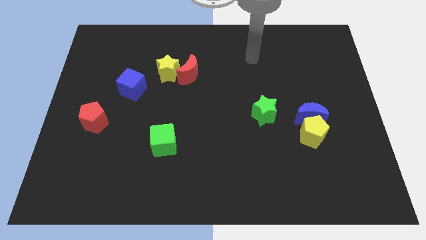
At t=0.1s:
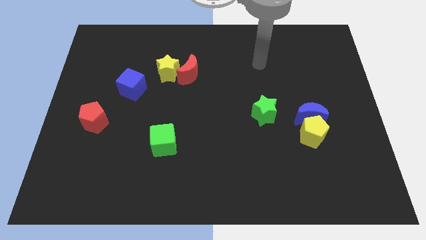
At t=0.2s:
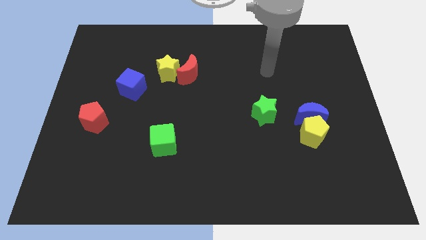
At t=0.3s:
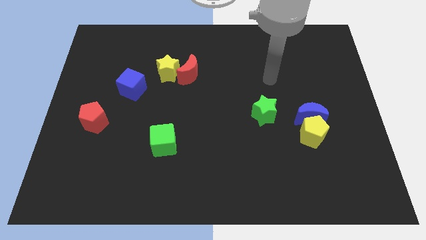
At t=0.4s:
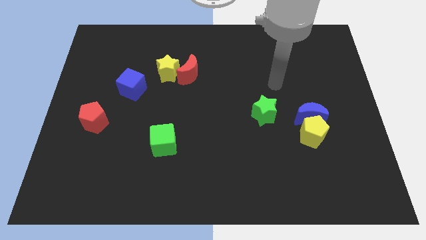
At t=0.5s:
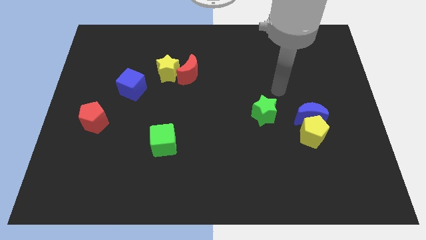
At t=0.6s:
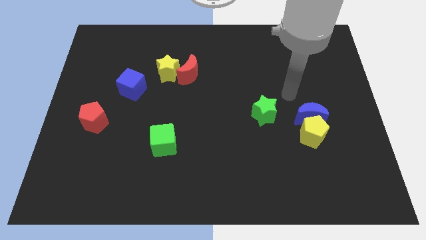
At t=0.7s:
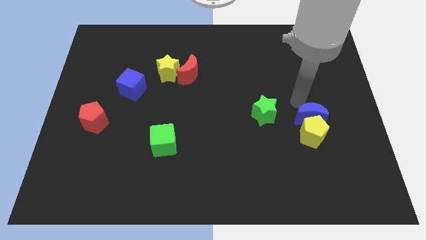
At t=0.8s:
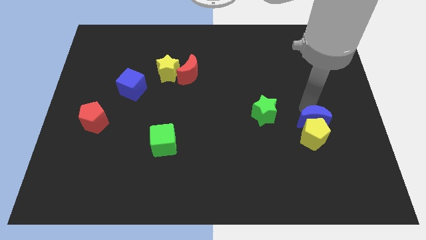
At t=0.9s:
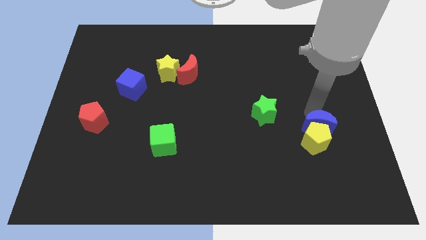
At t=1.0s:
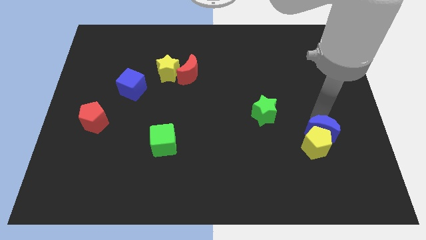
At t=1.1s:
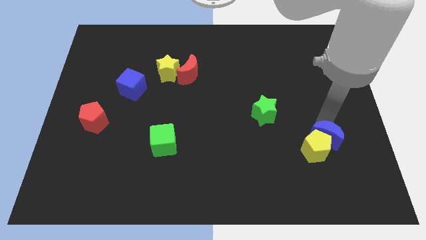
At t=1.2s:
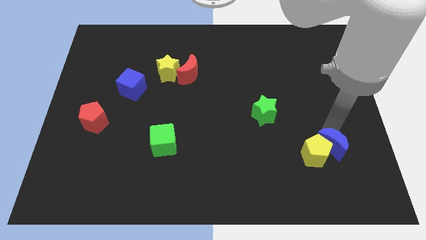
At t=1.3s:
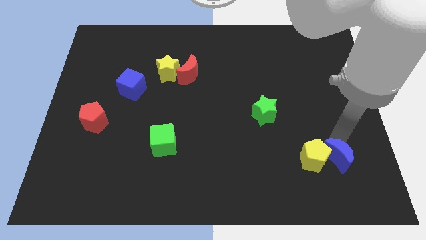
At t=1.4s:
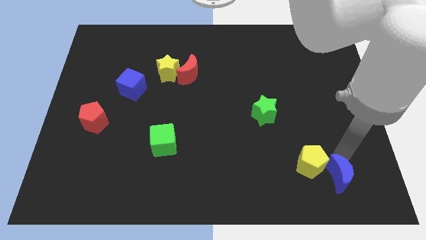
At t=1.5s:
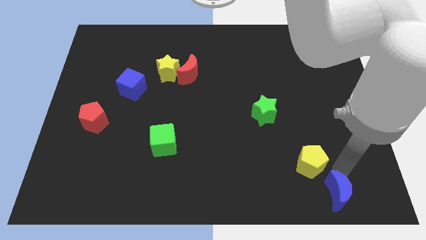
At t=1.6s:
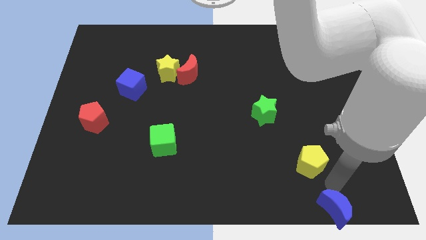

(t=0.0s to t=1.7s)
move the yellow pentagon away from the blue moon

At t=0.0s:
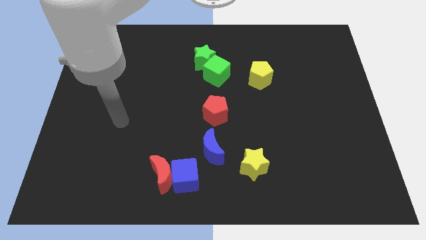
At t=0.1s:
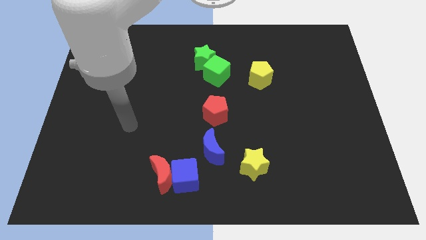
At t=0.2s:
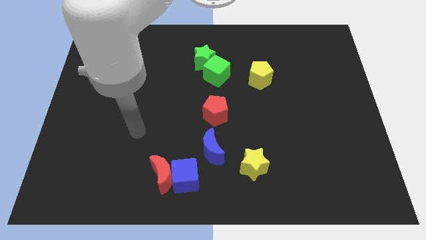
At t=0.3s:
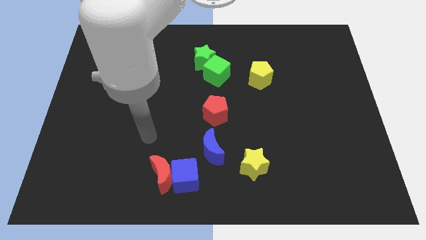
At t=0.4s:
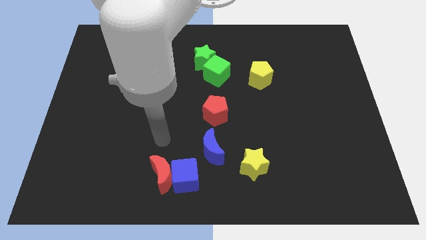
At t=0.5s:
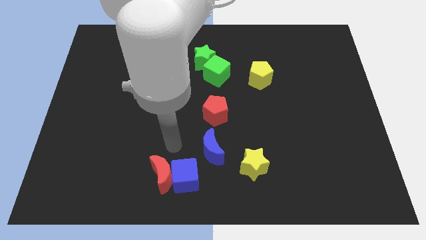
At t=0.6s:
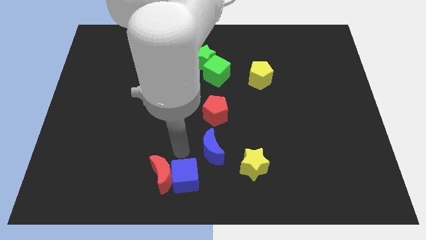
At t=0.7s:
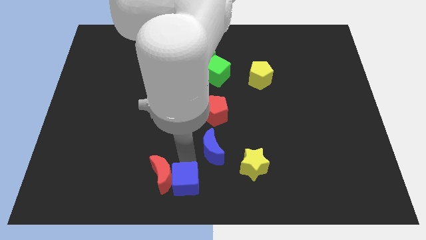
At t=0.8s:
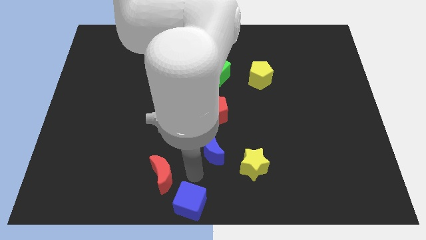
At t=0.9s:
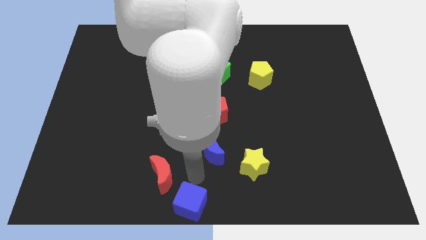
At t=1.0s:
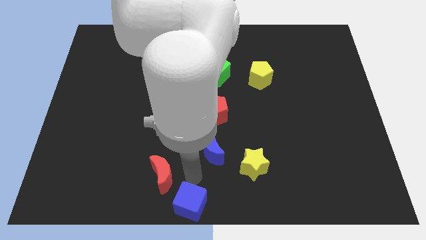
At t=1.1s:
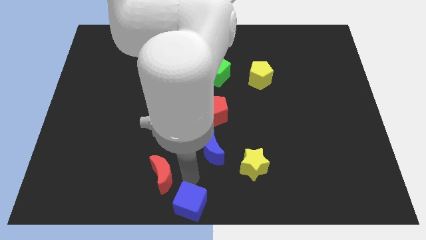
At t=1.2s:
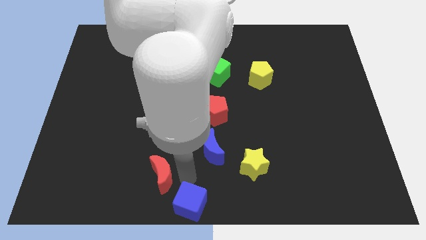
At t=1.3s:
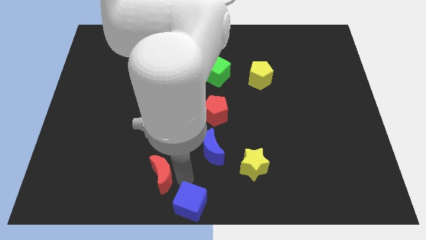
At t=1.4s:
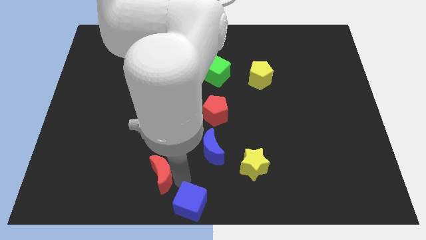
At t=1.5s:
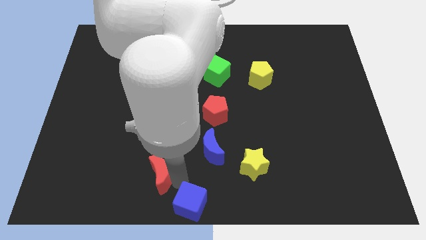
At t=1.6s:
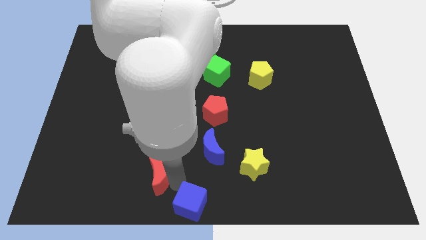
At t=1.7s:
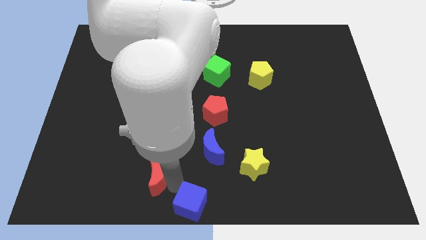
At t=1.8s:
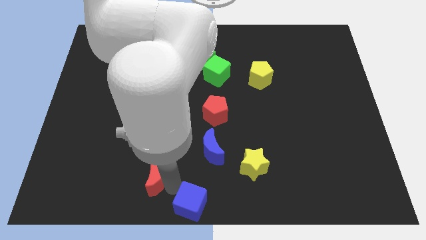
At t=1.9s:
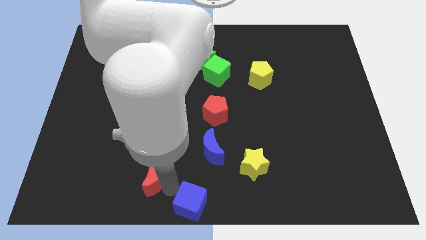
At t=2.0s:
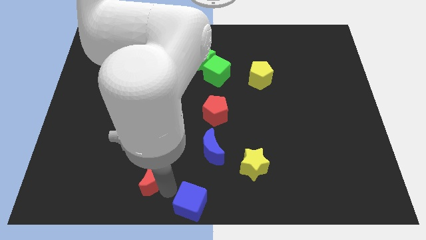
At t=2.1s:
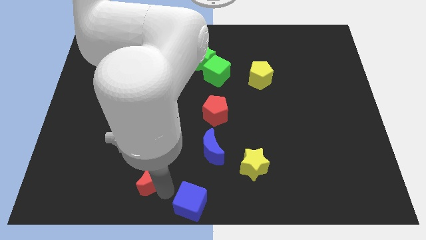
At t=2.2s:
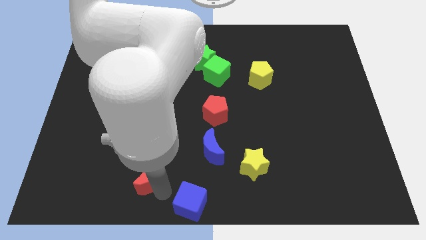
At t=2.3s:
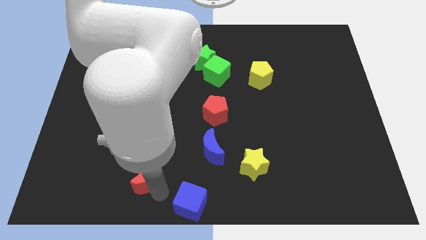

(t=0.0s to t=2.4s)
pull the red moon apart from the blue cube

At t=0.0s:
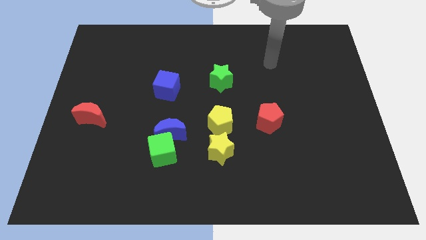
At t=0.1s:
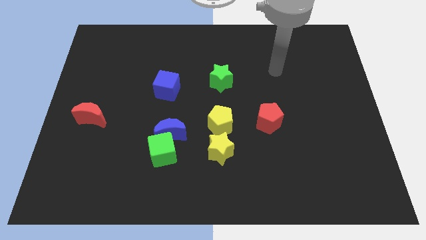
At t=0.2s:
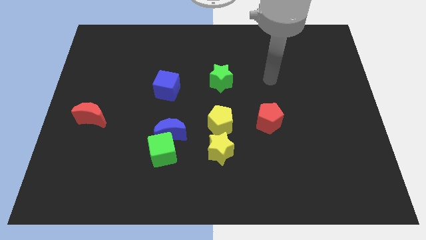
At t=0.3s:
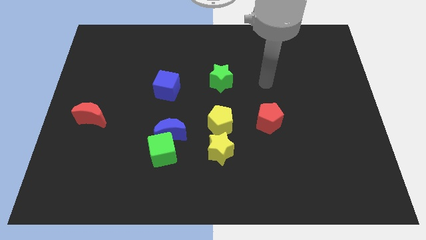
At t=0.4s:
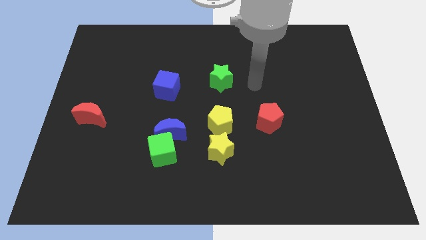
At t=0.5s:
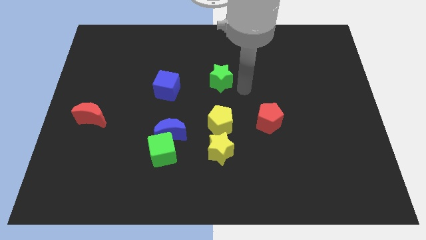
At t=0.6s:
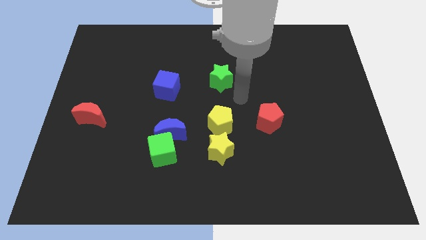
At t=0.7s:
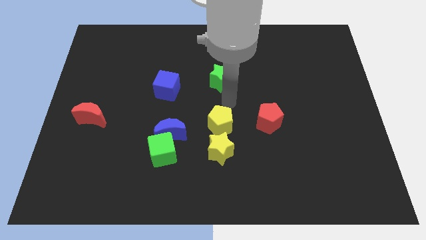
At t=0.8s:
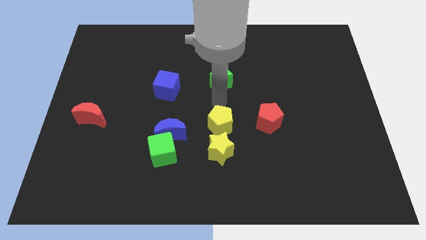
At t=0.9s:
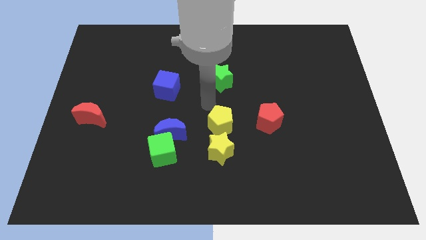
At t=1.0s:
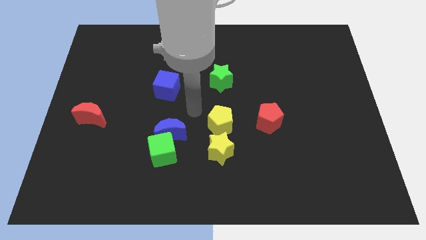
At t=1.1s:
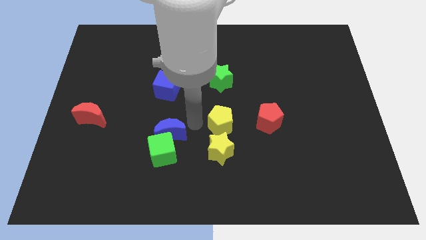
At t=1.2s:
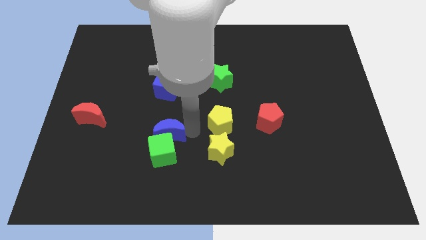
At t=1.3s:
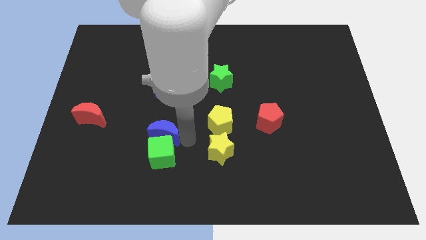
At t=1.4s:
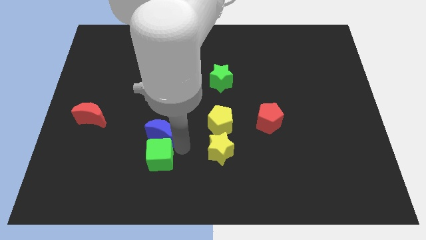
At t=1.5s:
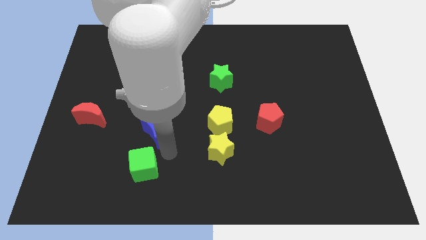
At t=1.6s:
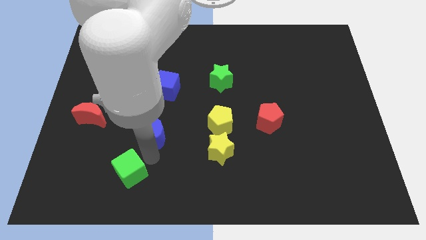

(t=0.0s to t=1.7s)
separate the blue moon from the green cube

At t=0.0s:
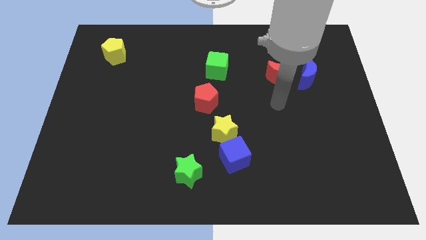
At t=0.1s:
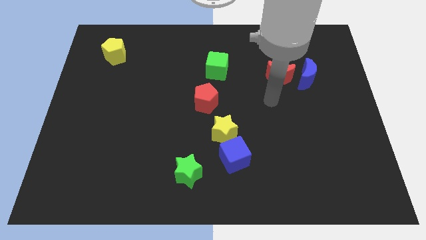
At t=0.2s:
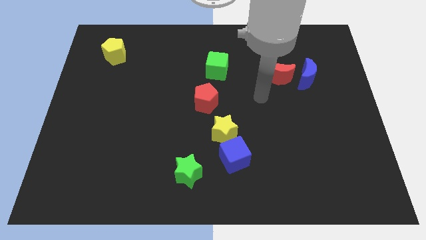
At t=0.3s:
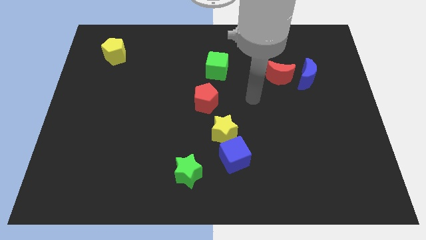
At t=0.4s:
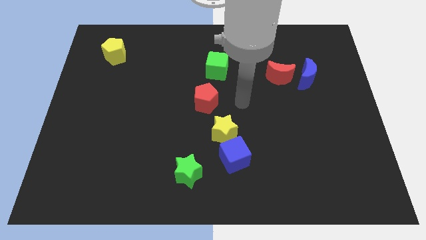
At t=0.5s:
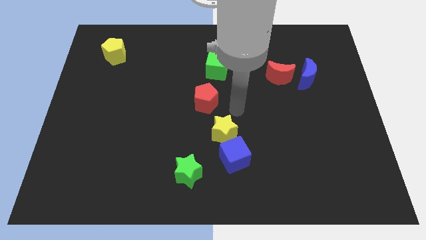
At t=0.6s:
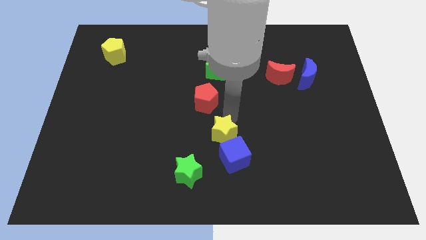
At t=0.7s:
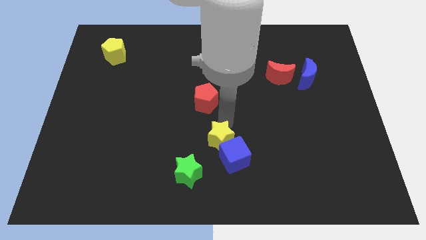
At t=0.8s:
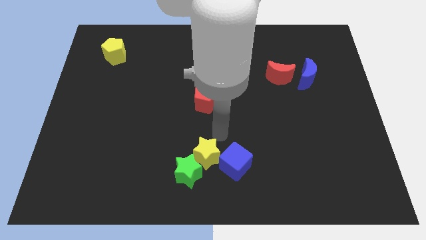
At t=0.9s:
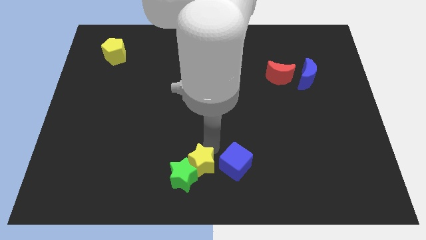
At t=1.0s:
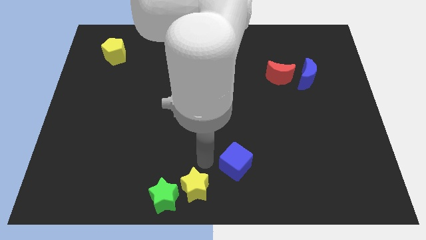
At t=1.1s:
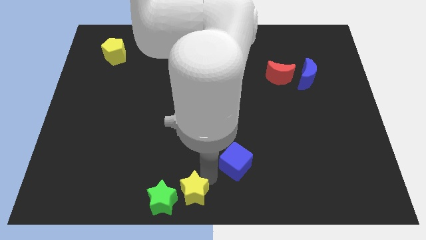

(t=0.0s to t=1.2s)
move the blue cube away from the yellow star

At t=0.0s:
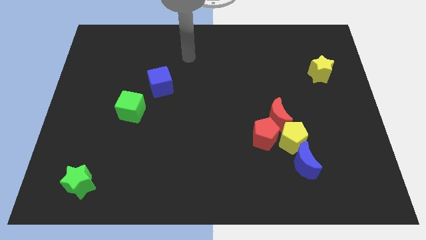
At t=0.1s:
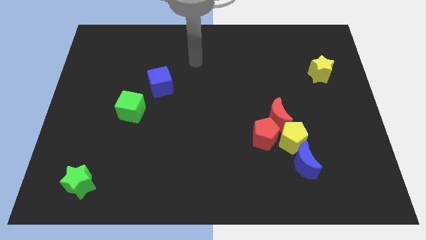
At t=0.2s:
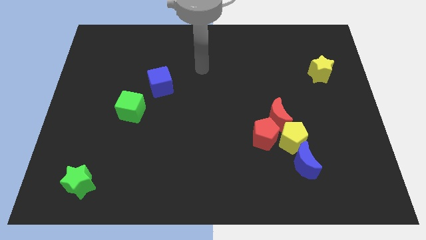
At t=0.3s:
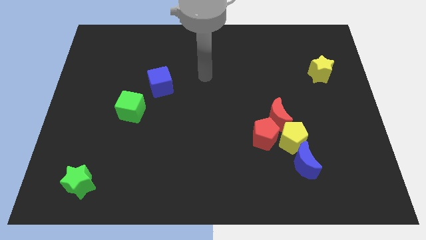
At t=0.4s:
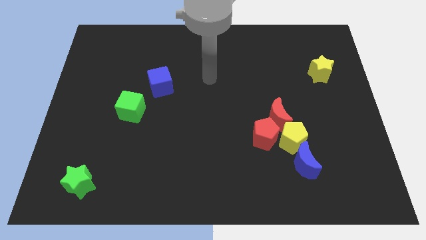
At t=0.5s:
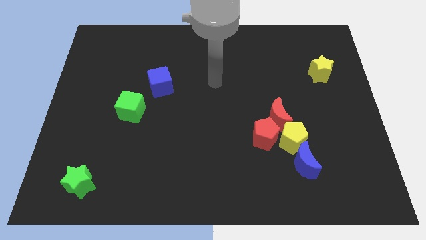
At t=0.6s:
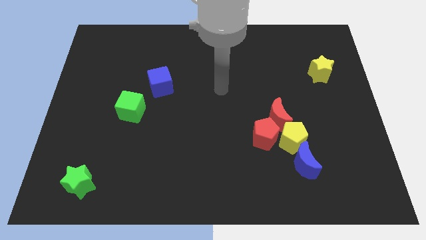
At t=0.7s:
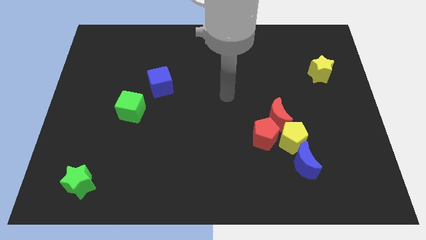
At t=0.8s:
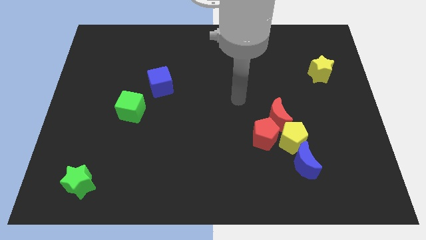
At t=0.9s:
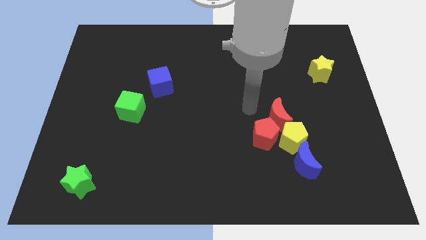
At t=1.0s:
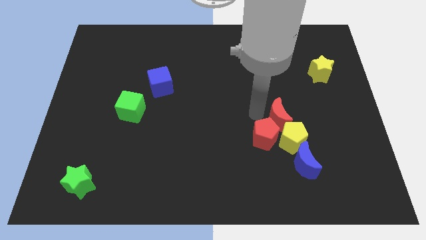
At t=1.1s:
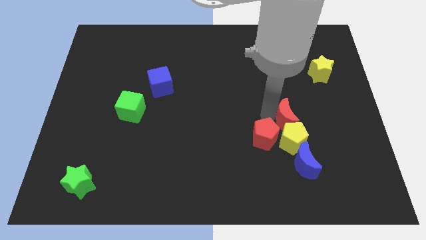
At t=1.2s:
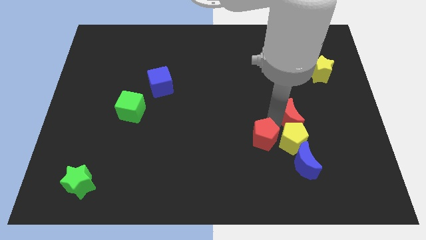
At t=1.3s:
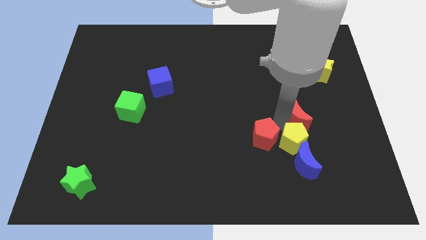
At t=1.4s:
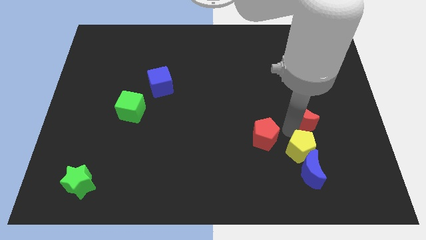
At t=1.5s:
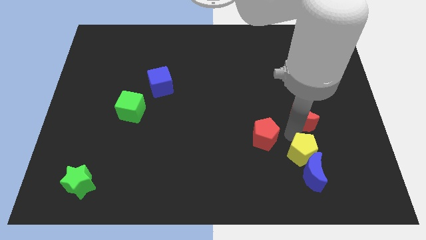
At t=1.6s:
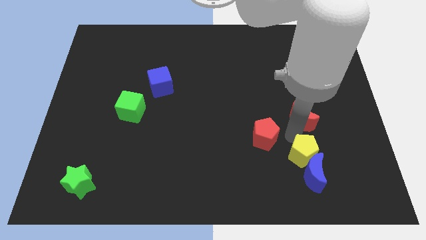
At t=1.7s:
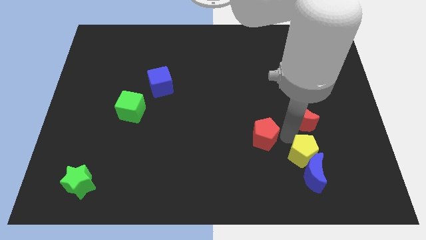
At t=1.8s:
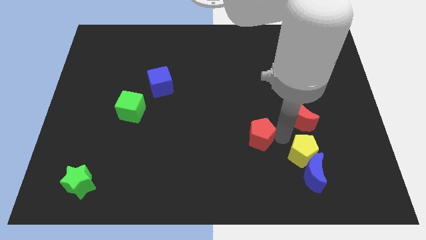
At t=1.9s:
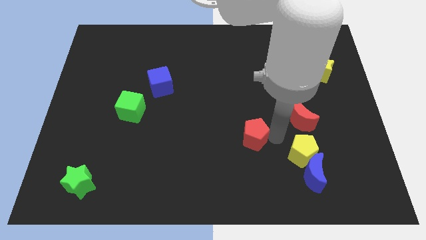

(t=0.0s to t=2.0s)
separate the red pentagon from the red moon and yellow pentagon

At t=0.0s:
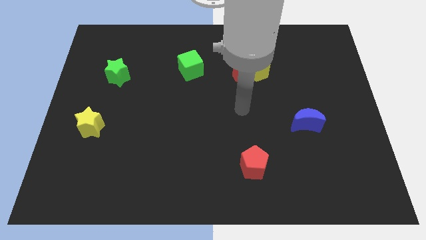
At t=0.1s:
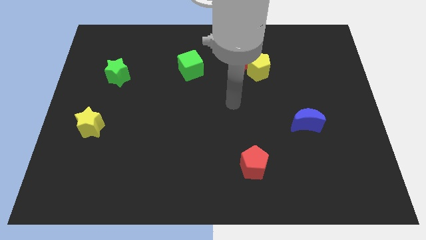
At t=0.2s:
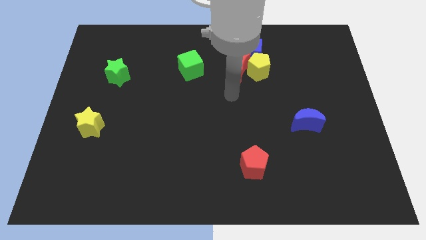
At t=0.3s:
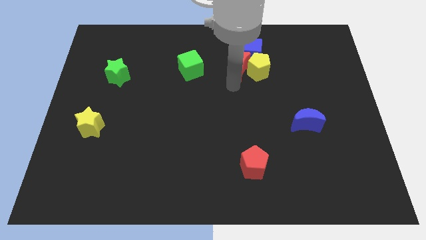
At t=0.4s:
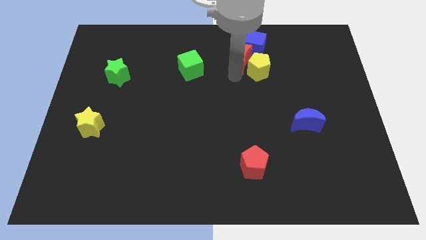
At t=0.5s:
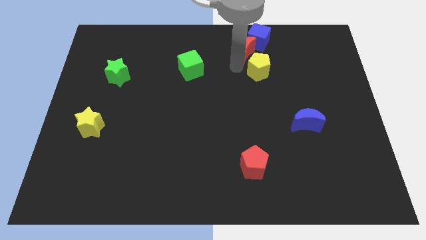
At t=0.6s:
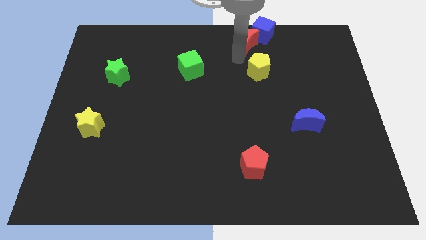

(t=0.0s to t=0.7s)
separate the yellow pentagon from the red moon and blue cube
